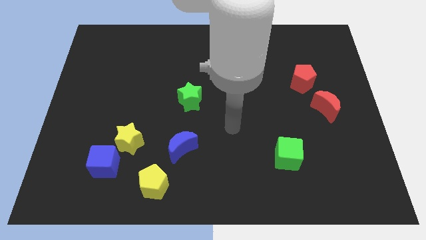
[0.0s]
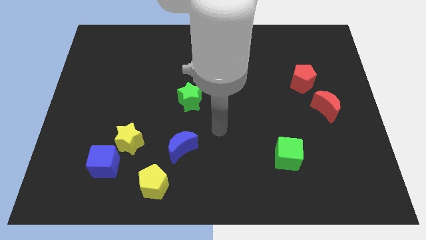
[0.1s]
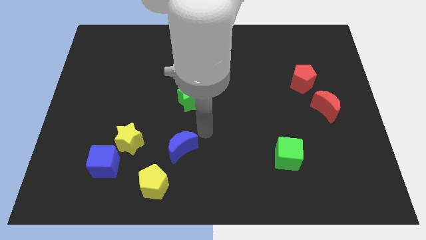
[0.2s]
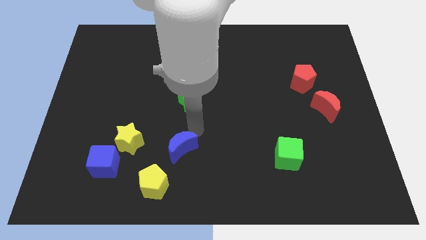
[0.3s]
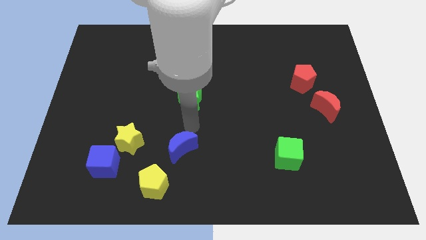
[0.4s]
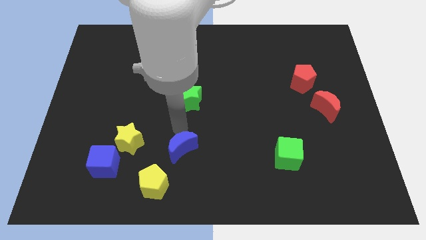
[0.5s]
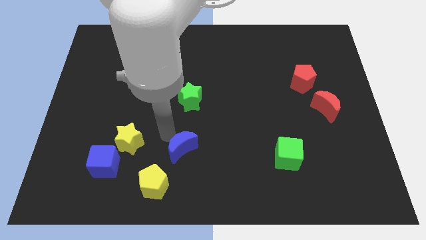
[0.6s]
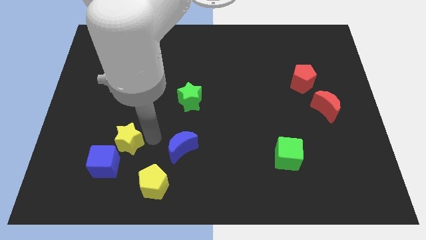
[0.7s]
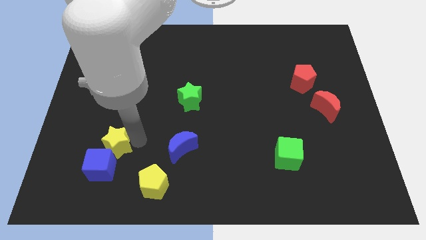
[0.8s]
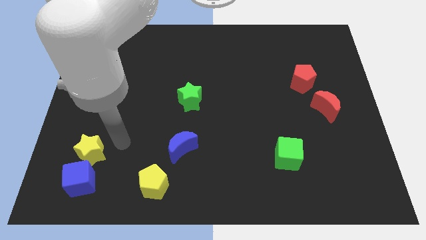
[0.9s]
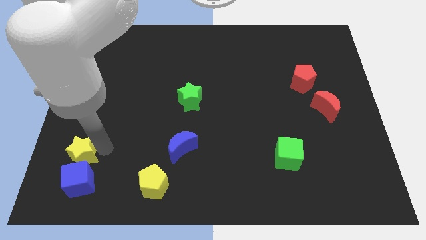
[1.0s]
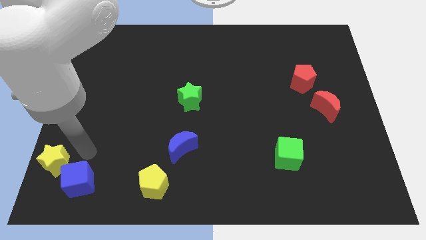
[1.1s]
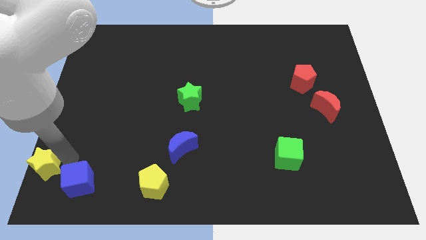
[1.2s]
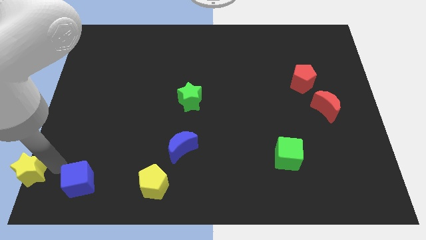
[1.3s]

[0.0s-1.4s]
pull the blue cube apart from the yellow star

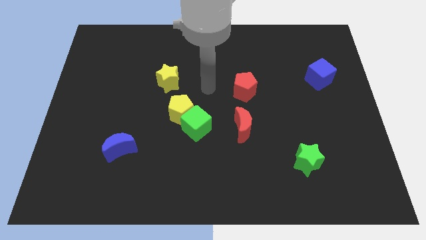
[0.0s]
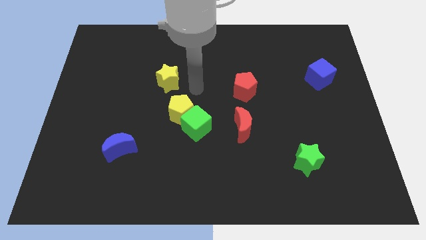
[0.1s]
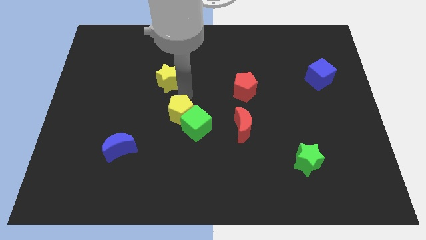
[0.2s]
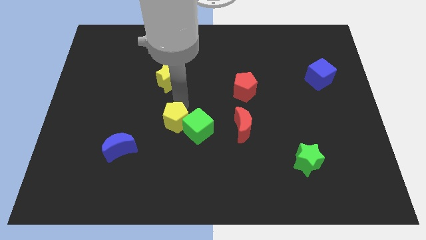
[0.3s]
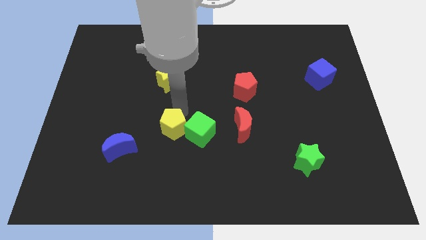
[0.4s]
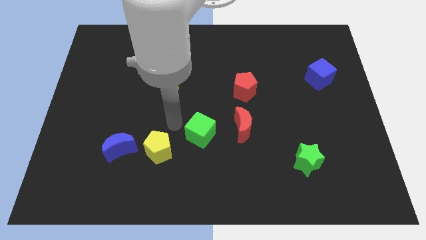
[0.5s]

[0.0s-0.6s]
separate the green cube from the yellow pentagon

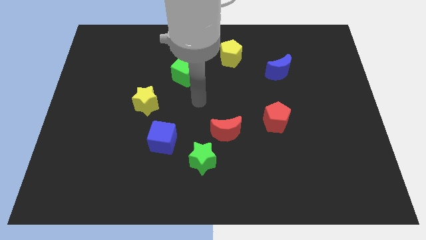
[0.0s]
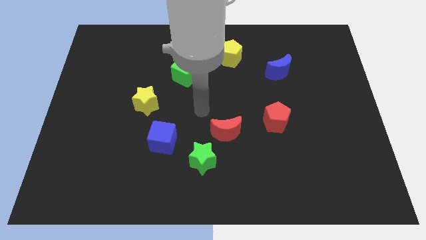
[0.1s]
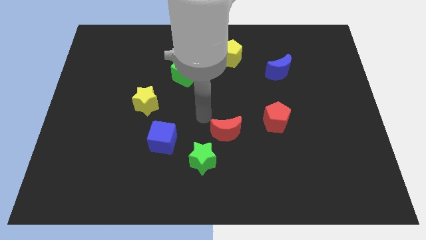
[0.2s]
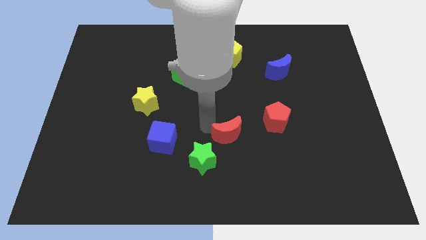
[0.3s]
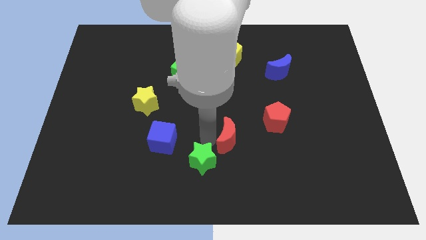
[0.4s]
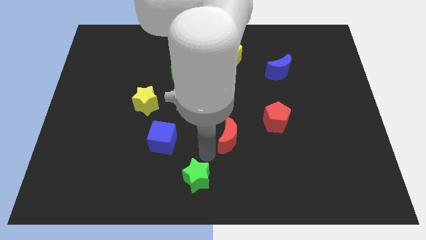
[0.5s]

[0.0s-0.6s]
separate the red moon from the green star

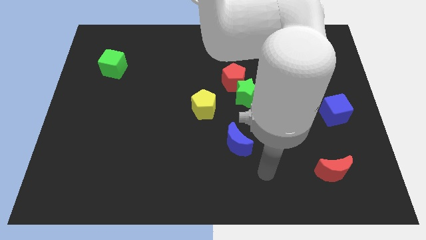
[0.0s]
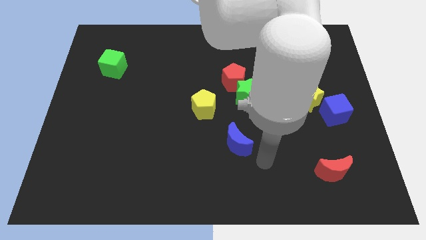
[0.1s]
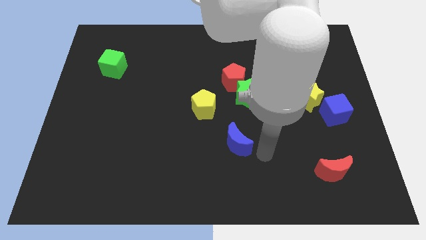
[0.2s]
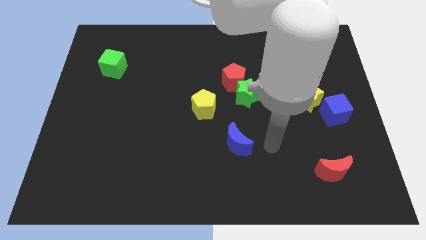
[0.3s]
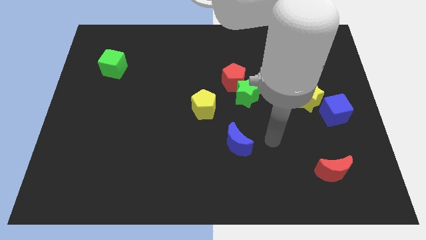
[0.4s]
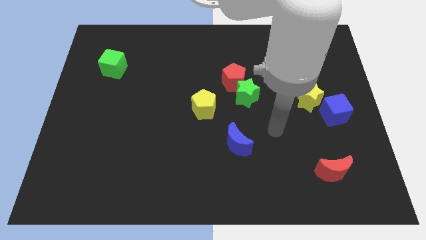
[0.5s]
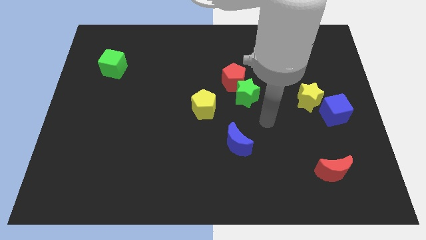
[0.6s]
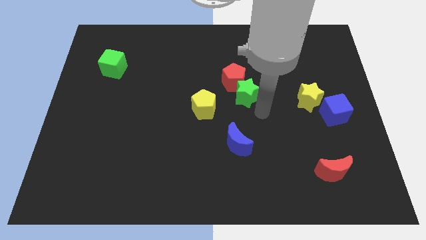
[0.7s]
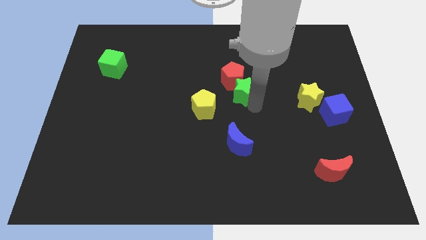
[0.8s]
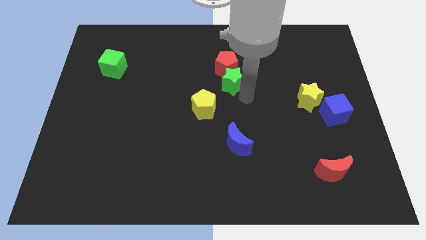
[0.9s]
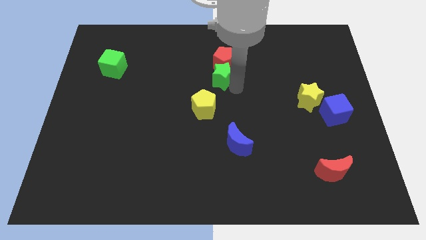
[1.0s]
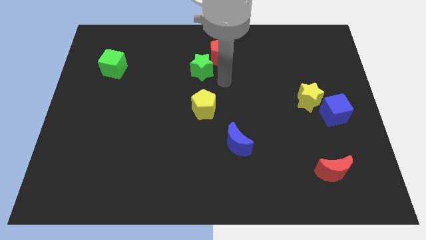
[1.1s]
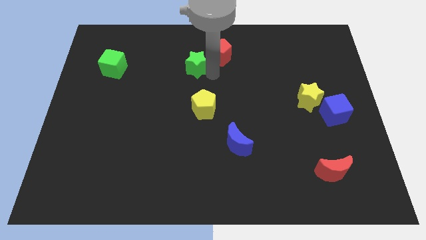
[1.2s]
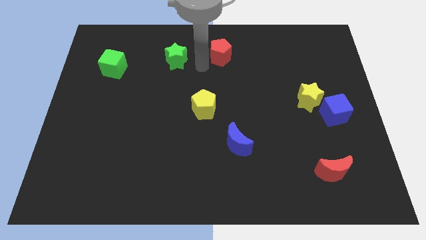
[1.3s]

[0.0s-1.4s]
separate the red pentagon from the green star

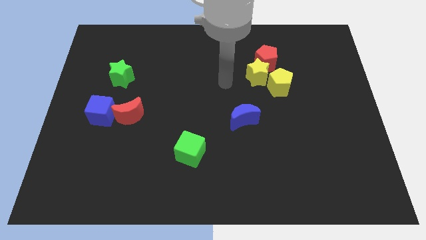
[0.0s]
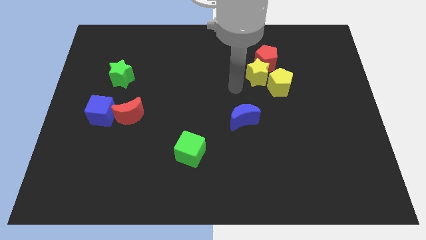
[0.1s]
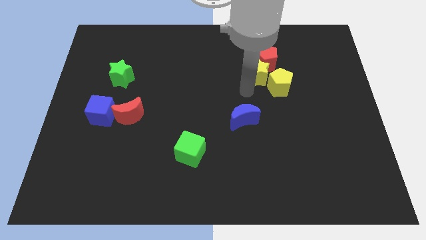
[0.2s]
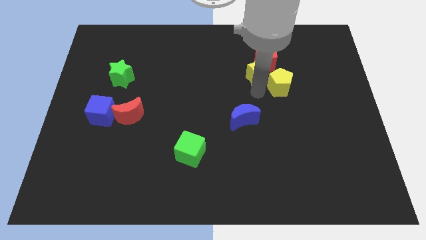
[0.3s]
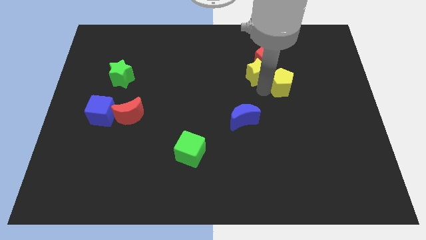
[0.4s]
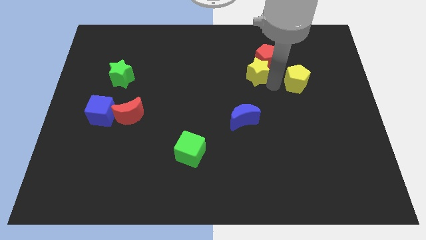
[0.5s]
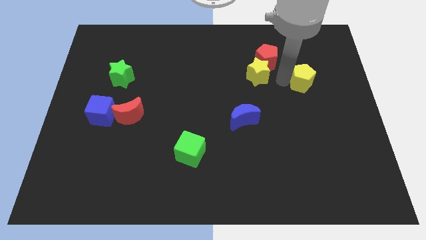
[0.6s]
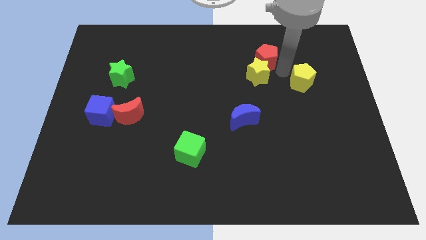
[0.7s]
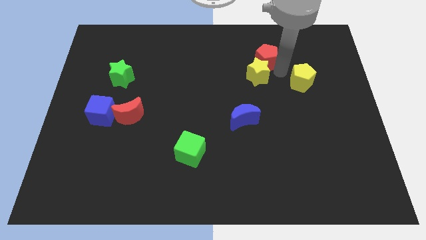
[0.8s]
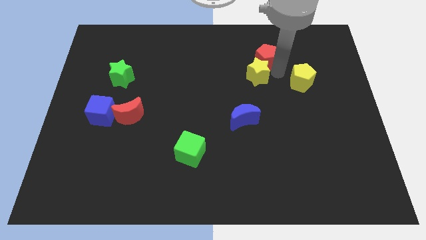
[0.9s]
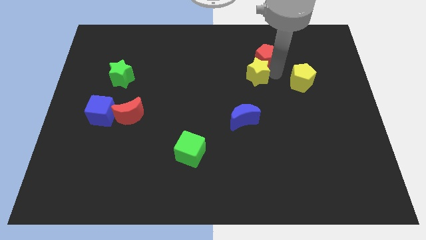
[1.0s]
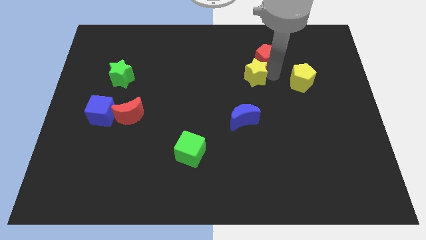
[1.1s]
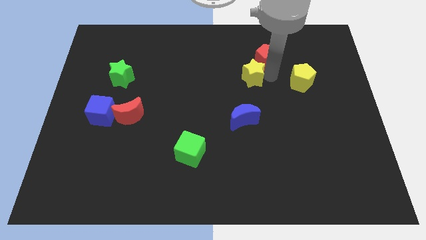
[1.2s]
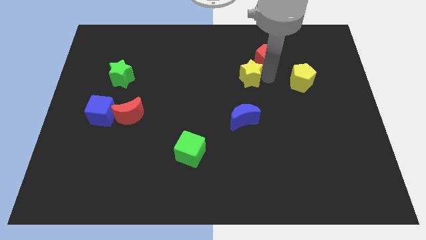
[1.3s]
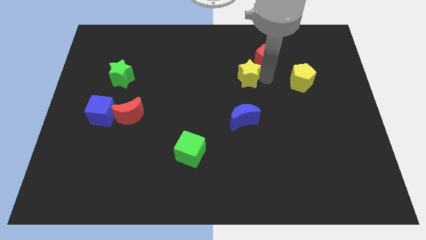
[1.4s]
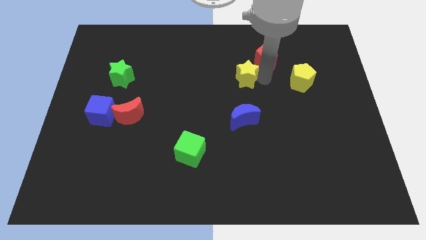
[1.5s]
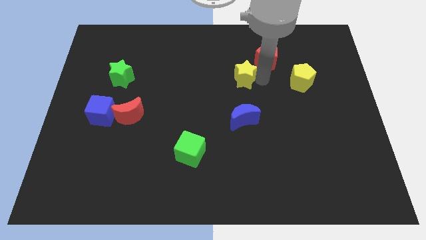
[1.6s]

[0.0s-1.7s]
move the yellow star away from the red pentagon and yellow pentagon

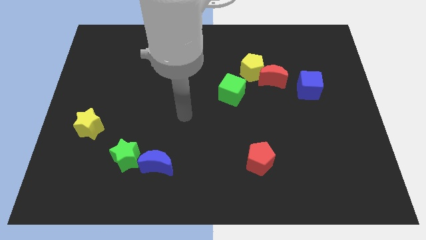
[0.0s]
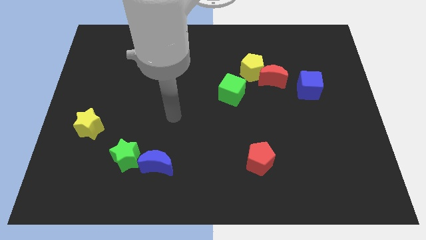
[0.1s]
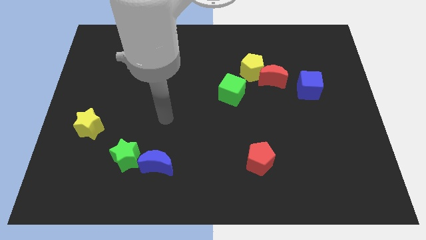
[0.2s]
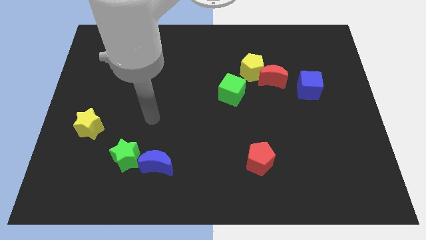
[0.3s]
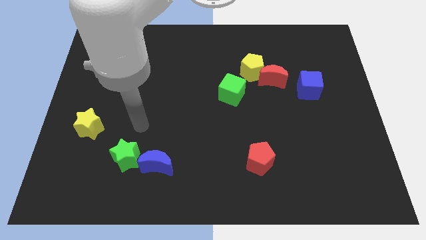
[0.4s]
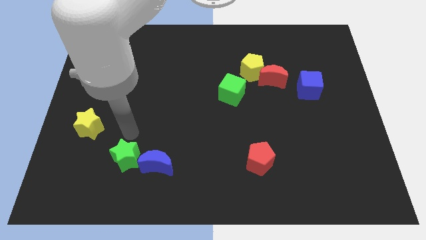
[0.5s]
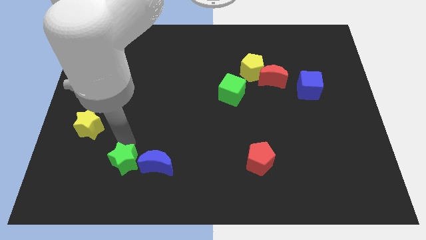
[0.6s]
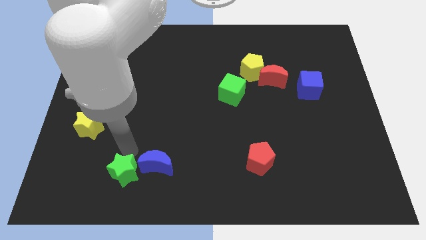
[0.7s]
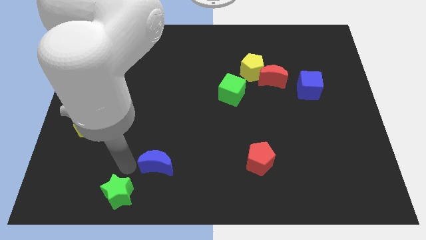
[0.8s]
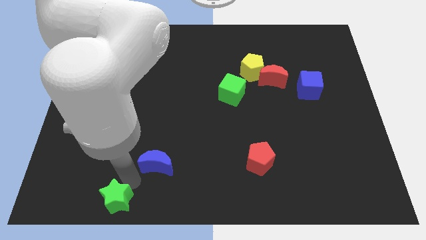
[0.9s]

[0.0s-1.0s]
pull the blue moon apart from the green star

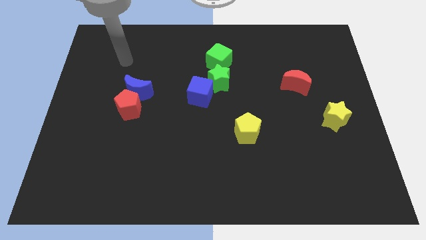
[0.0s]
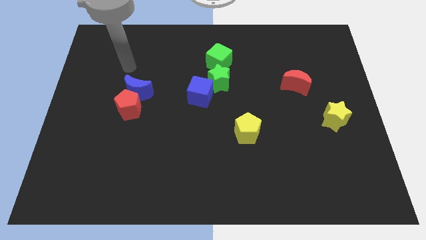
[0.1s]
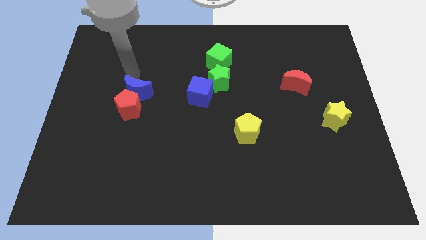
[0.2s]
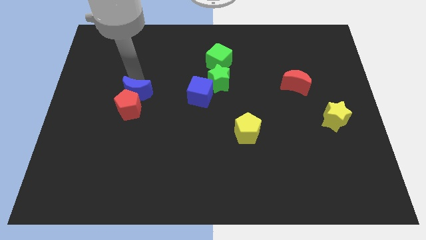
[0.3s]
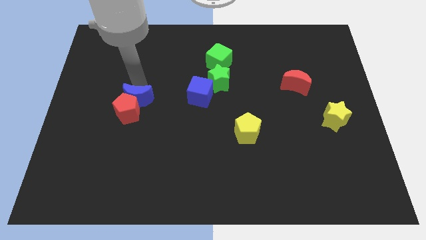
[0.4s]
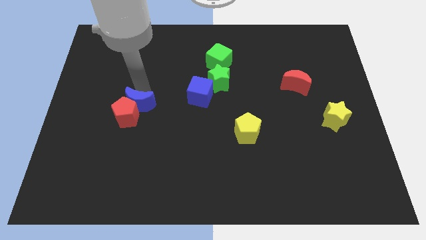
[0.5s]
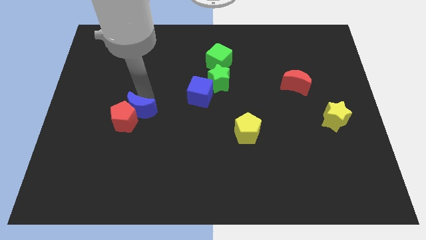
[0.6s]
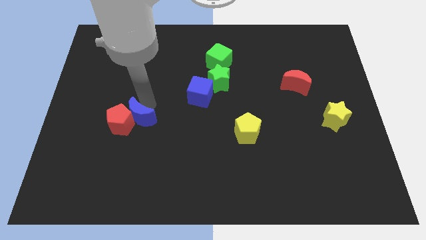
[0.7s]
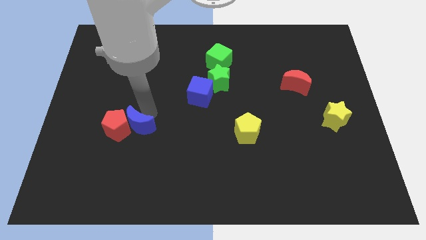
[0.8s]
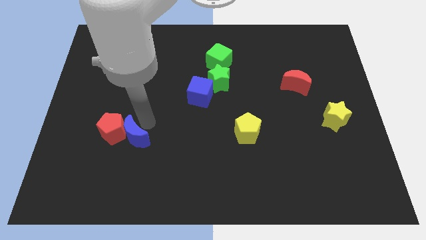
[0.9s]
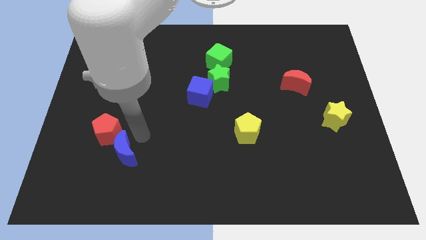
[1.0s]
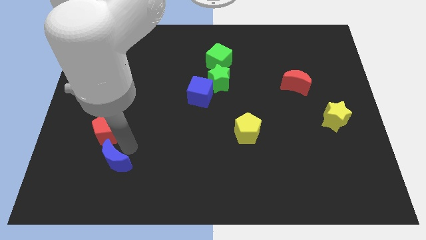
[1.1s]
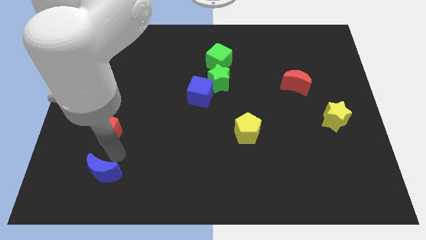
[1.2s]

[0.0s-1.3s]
move the red pentagon away from the blue moon

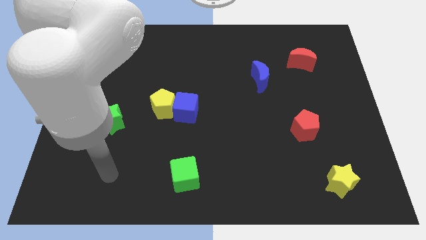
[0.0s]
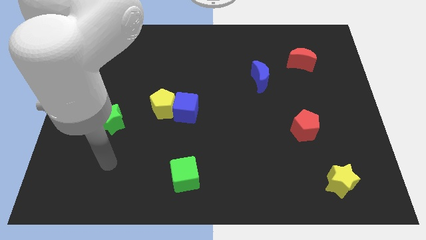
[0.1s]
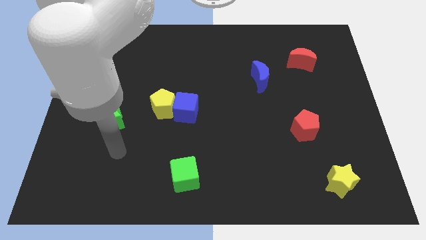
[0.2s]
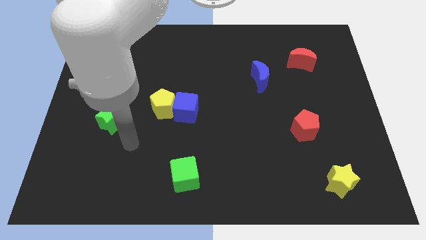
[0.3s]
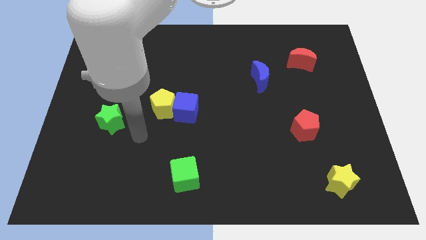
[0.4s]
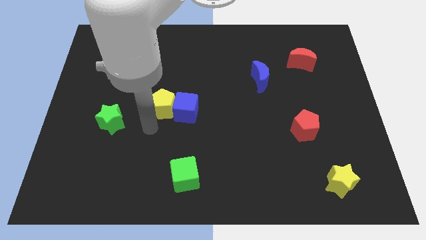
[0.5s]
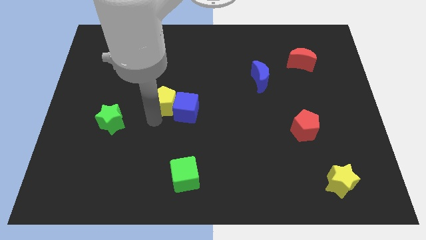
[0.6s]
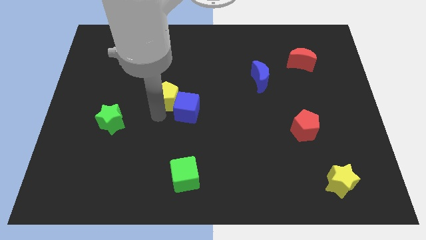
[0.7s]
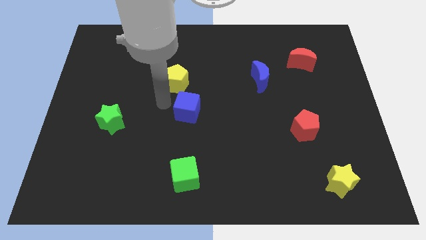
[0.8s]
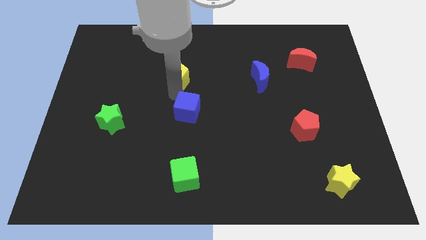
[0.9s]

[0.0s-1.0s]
pull the blue cube apart from the yellow pentagon

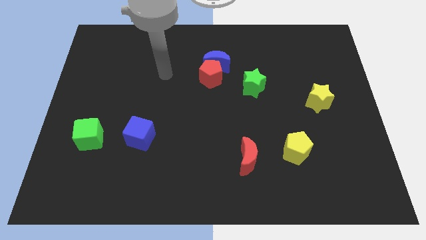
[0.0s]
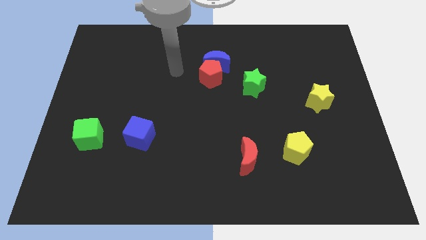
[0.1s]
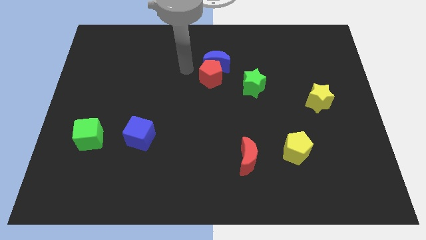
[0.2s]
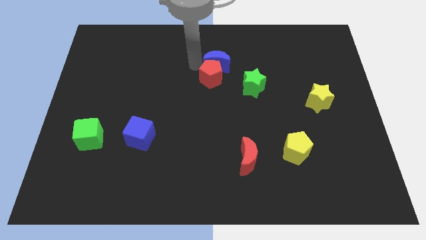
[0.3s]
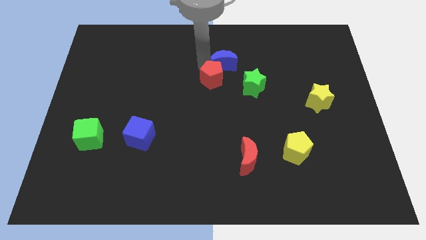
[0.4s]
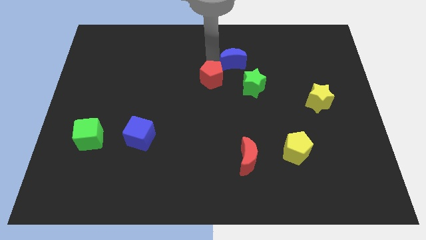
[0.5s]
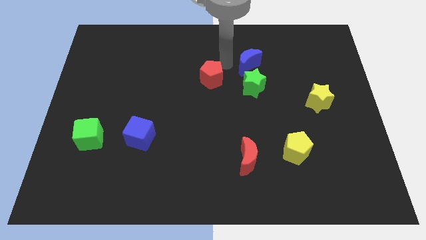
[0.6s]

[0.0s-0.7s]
separate the red pentagon from the blue moon
